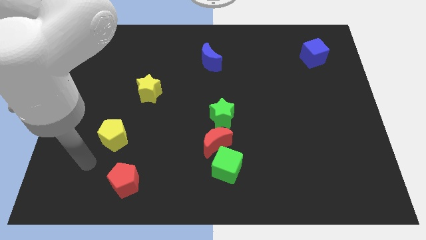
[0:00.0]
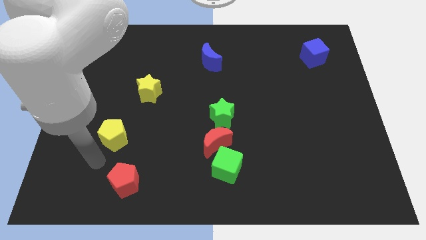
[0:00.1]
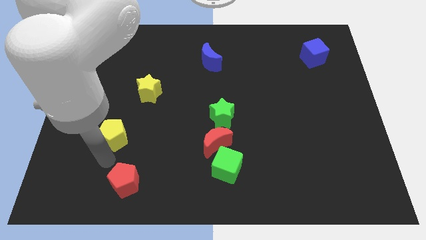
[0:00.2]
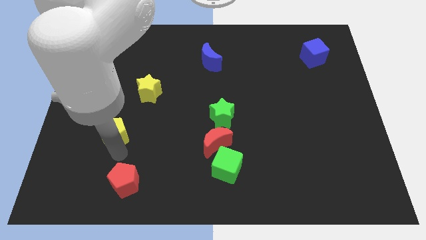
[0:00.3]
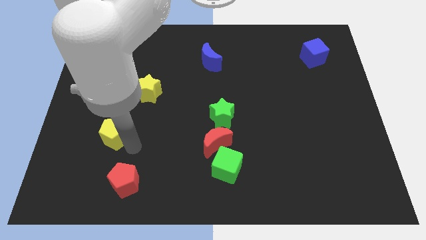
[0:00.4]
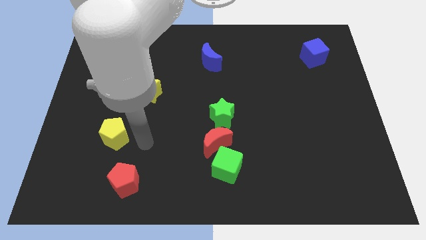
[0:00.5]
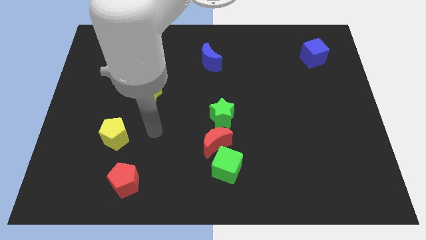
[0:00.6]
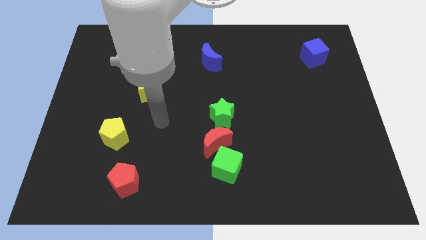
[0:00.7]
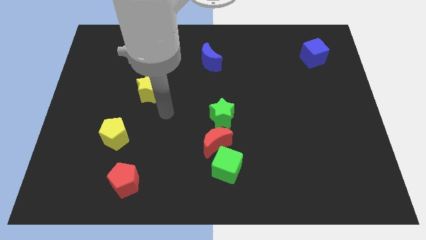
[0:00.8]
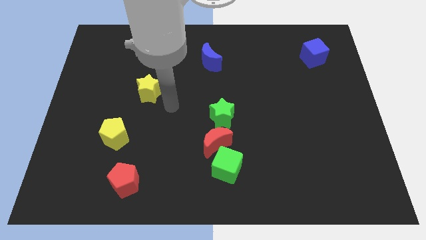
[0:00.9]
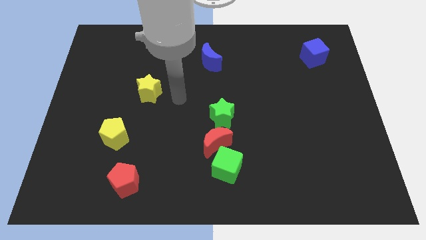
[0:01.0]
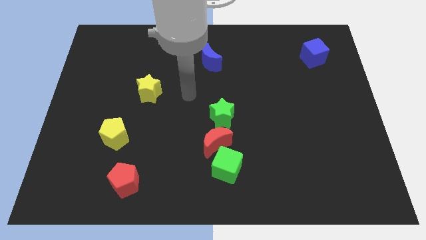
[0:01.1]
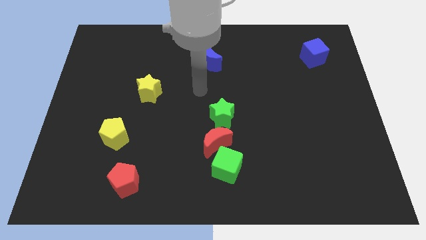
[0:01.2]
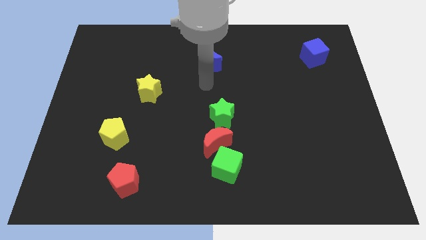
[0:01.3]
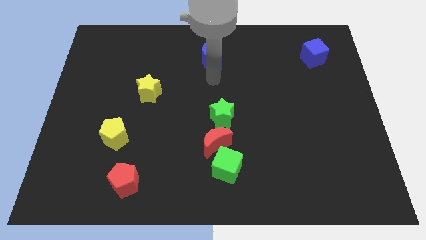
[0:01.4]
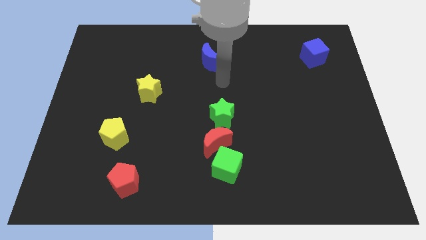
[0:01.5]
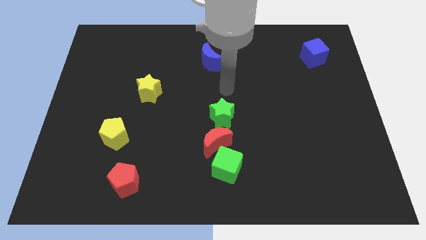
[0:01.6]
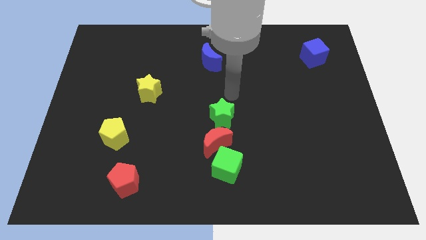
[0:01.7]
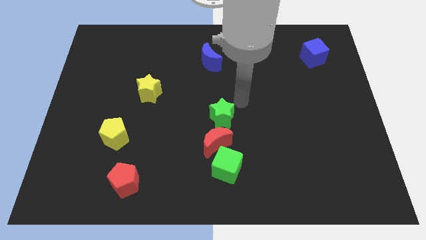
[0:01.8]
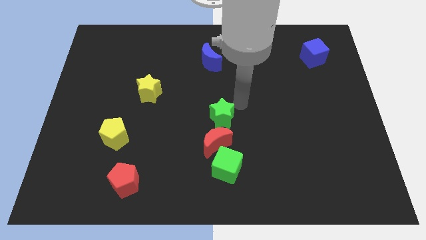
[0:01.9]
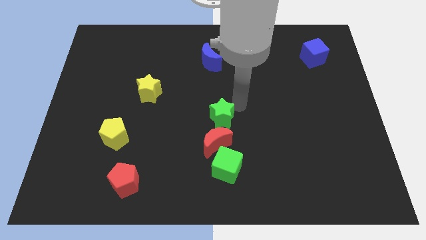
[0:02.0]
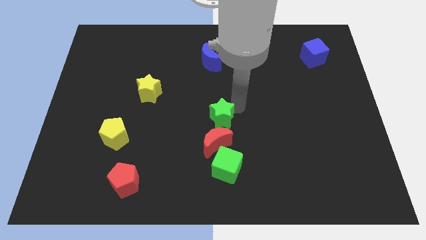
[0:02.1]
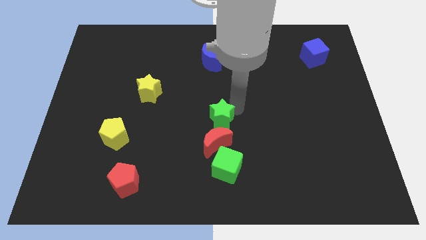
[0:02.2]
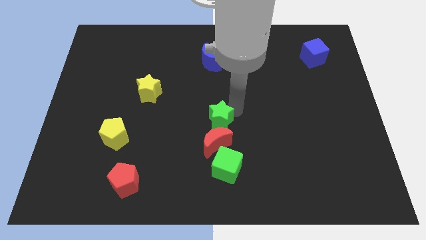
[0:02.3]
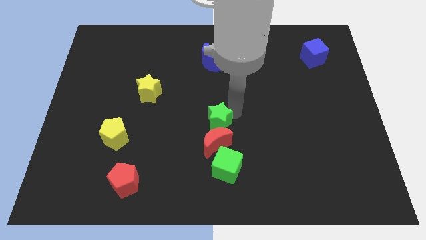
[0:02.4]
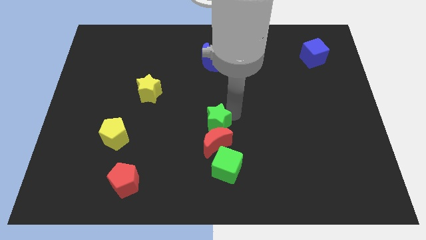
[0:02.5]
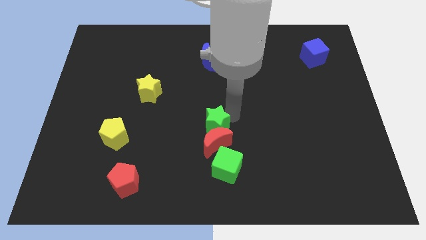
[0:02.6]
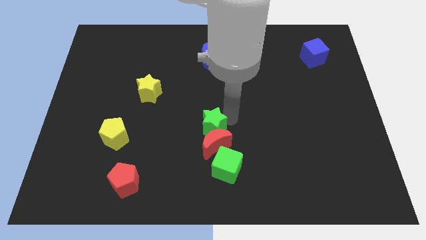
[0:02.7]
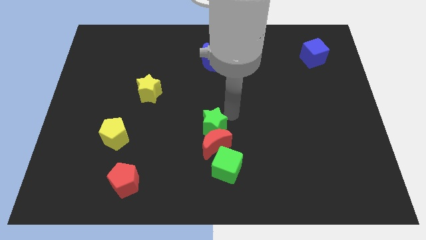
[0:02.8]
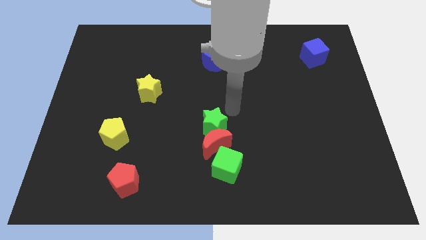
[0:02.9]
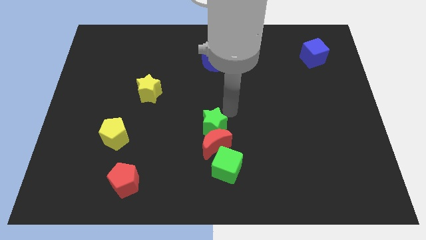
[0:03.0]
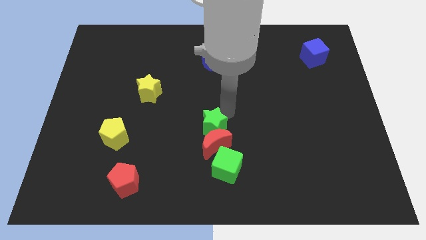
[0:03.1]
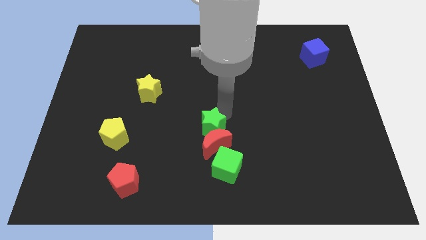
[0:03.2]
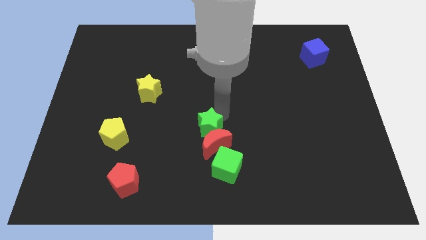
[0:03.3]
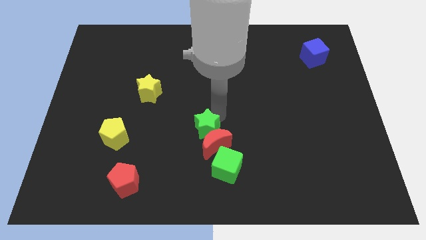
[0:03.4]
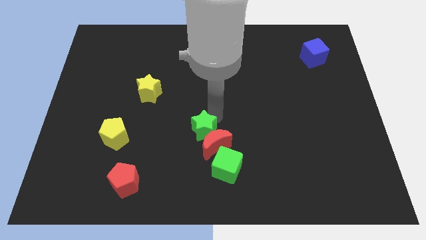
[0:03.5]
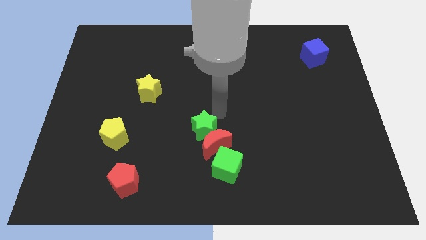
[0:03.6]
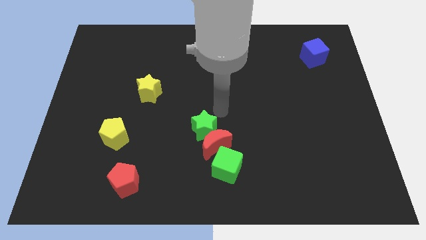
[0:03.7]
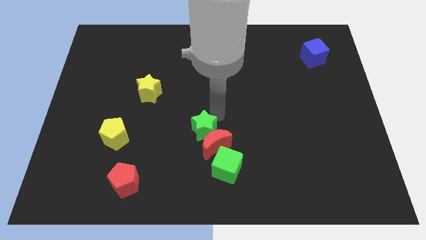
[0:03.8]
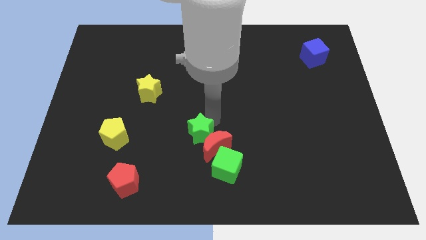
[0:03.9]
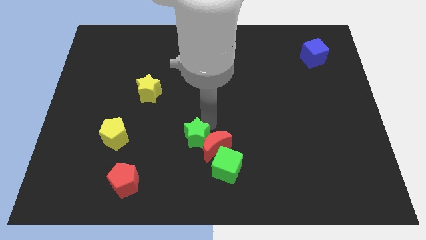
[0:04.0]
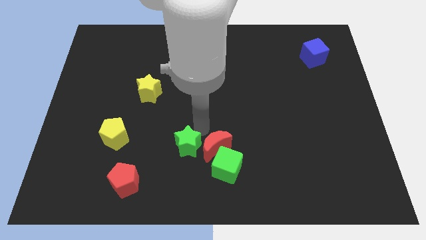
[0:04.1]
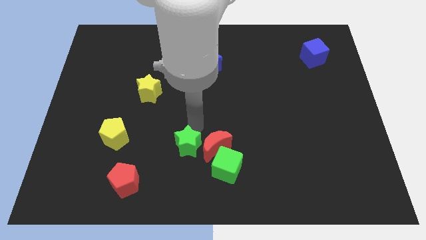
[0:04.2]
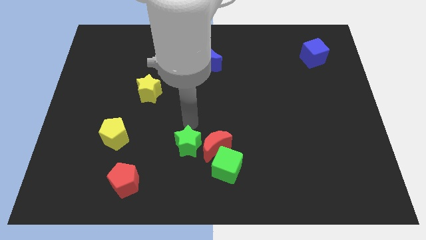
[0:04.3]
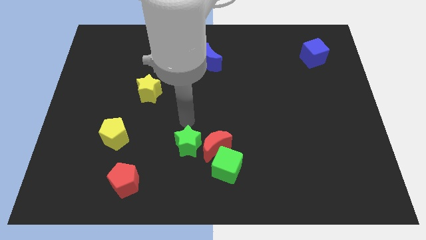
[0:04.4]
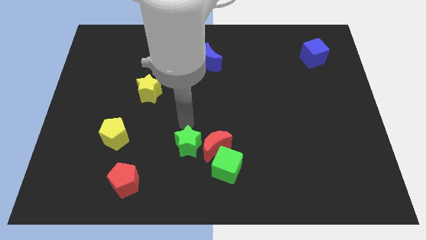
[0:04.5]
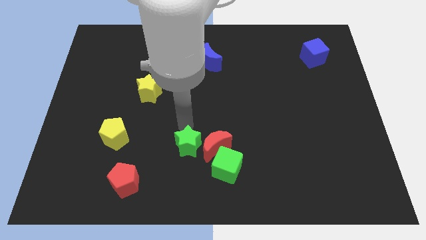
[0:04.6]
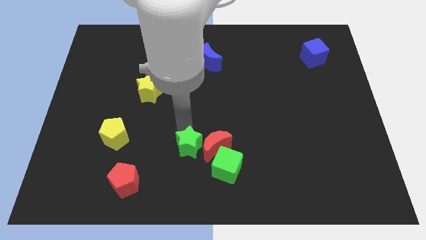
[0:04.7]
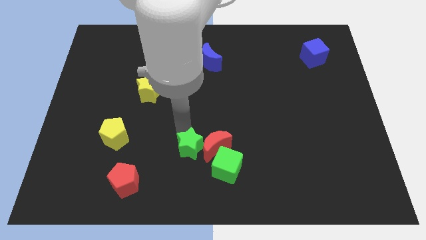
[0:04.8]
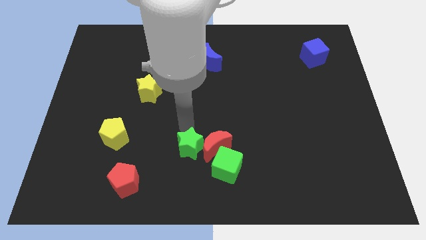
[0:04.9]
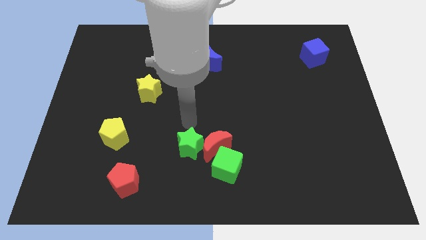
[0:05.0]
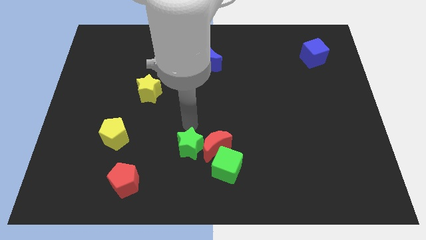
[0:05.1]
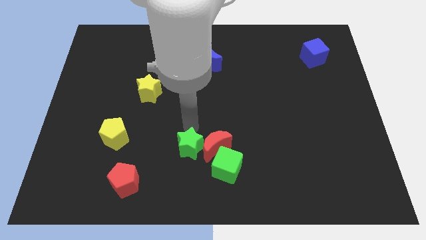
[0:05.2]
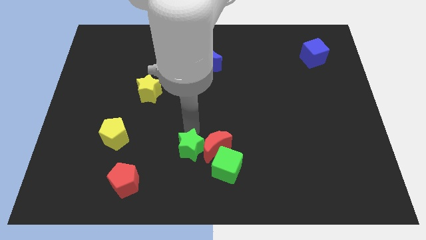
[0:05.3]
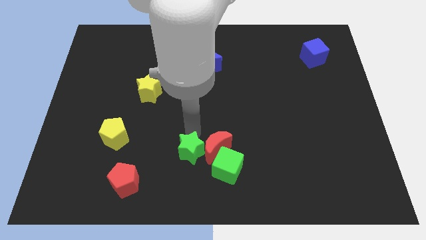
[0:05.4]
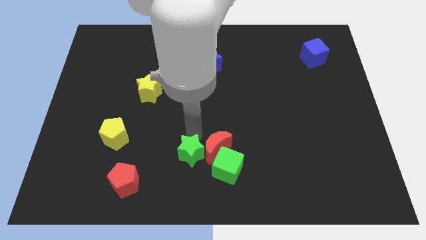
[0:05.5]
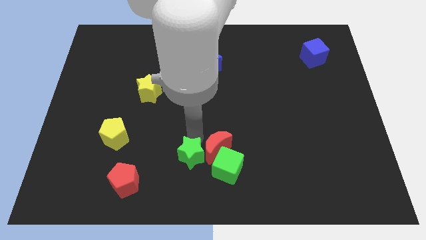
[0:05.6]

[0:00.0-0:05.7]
push the green star to the bottom side
